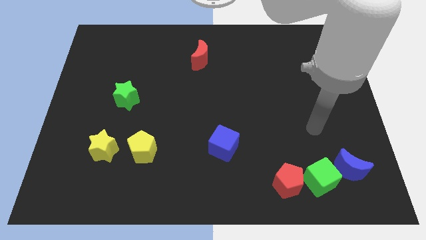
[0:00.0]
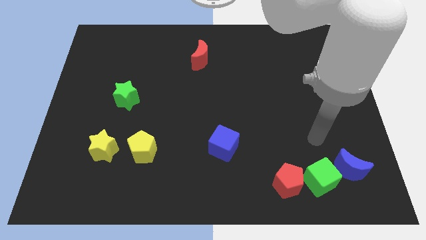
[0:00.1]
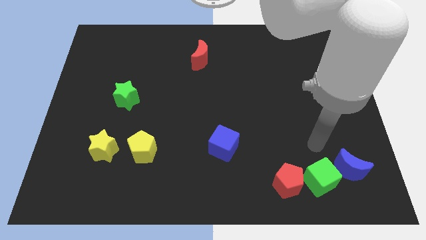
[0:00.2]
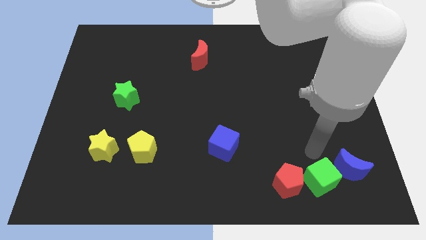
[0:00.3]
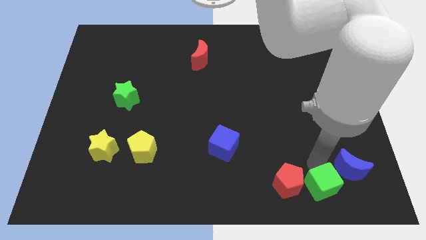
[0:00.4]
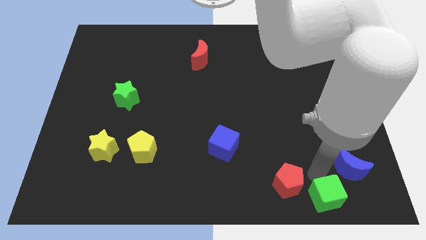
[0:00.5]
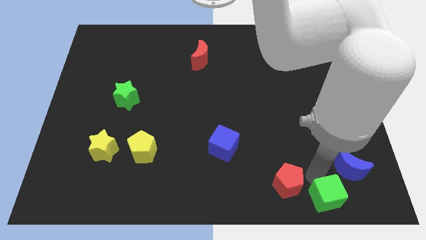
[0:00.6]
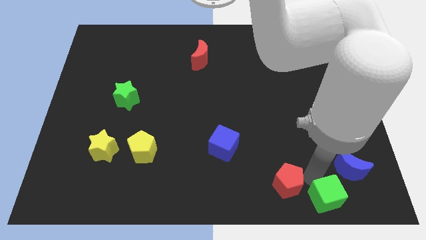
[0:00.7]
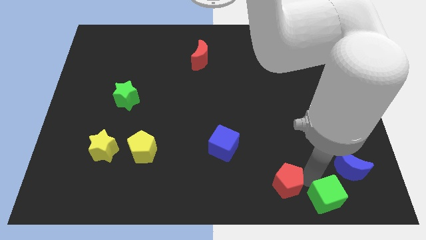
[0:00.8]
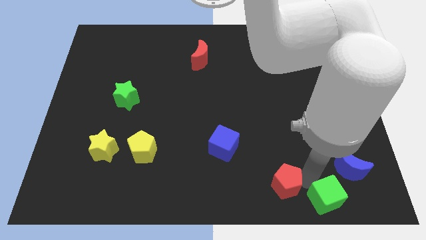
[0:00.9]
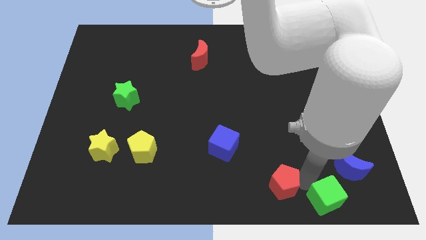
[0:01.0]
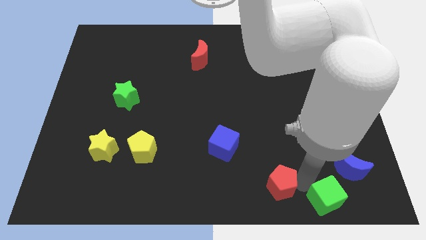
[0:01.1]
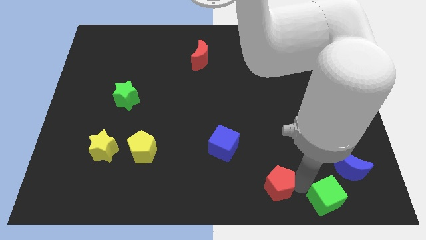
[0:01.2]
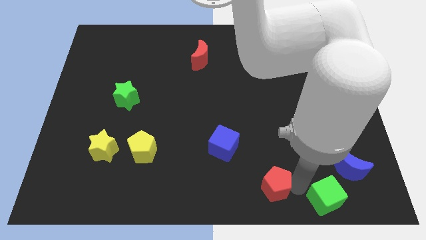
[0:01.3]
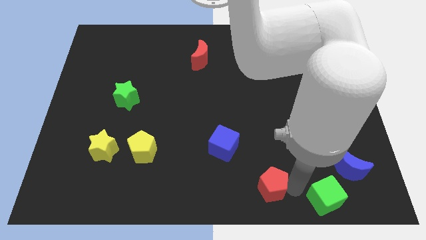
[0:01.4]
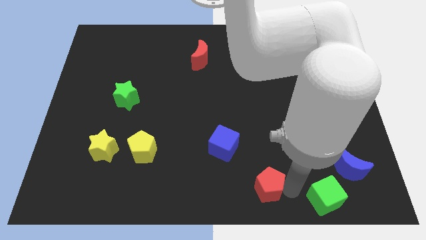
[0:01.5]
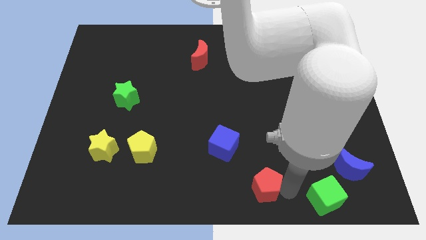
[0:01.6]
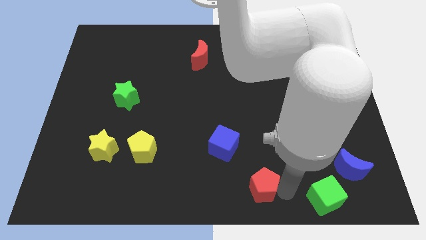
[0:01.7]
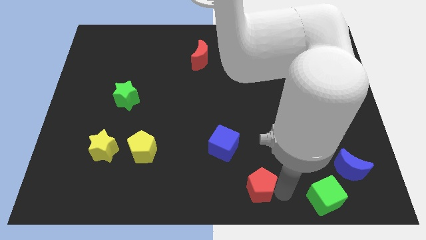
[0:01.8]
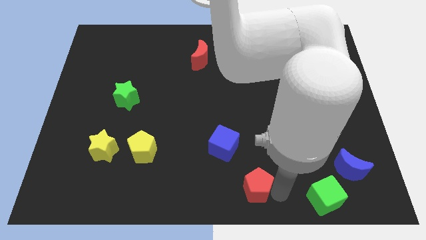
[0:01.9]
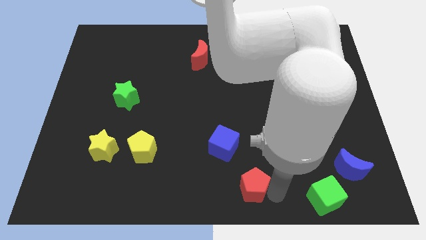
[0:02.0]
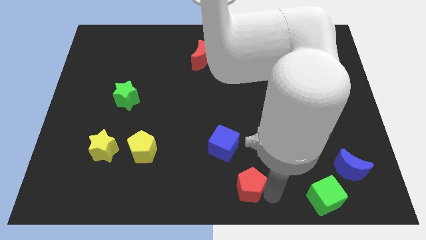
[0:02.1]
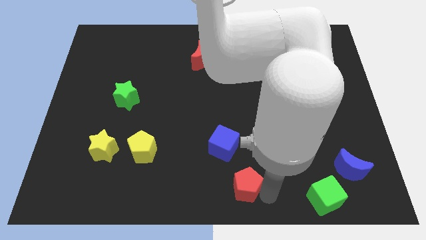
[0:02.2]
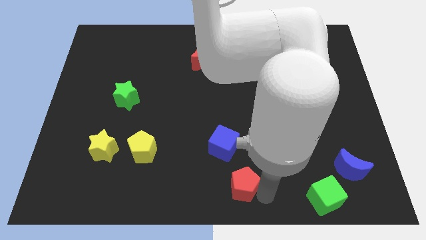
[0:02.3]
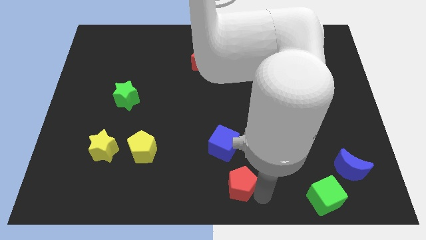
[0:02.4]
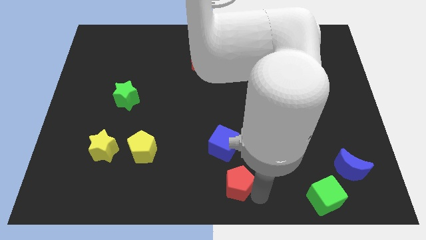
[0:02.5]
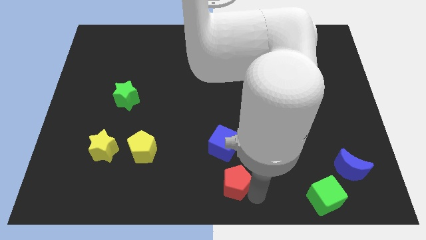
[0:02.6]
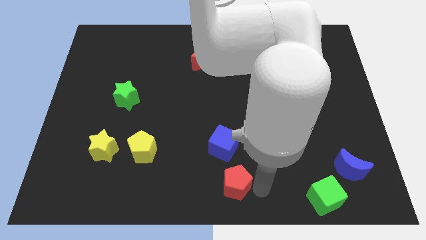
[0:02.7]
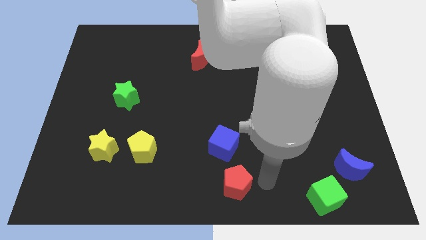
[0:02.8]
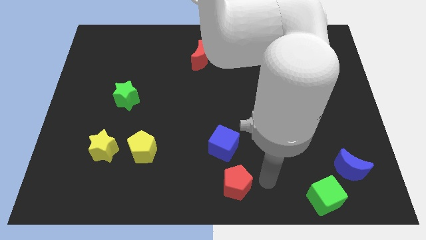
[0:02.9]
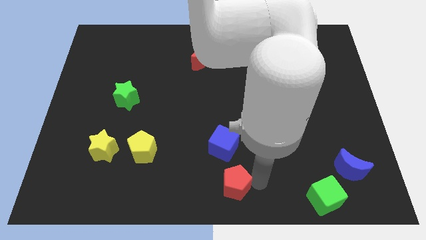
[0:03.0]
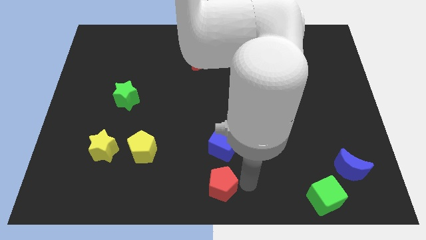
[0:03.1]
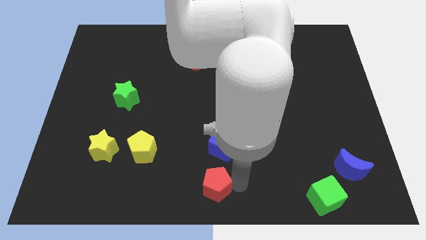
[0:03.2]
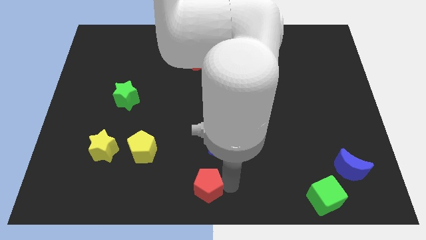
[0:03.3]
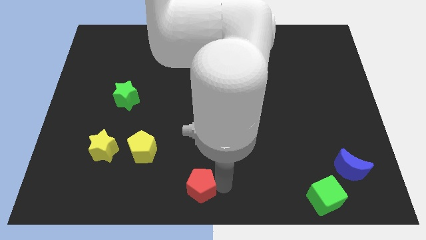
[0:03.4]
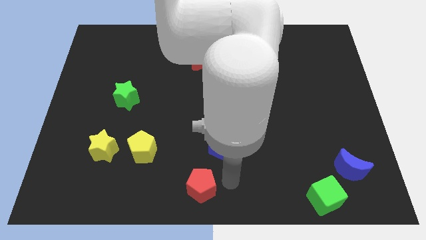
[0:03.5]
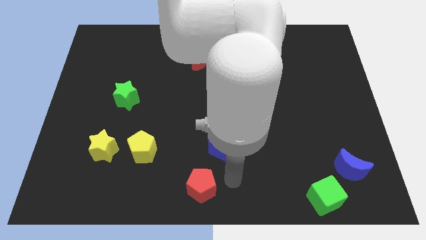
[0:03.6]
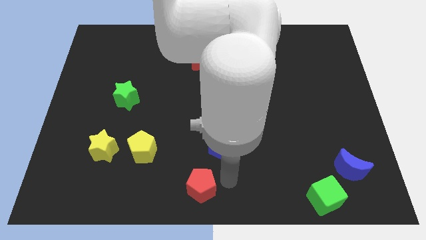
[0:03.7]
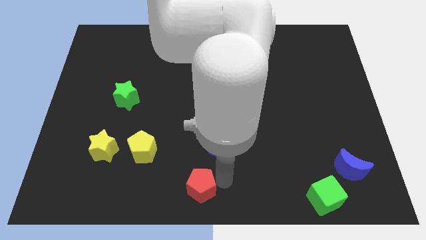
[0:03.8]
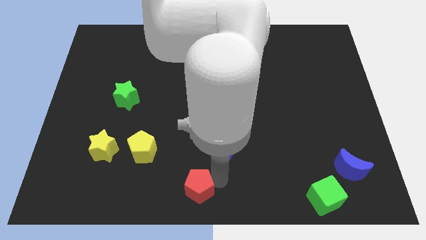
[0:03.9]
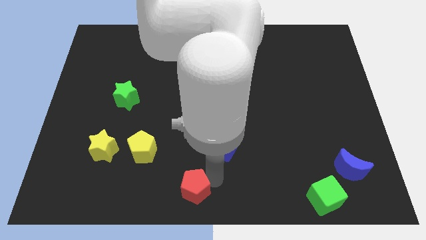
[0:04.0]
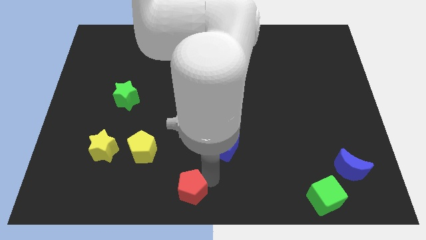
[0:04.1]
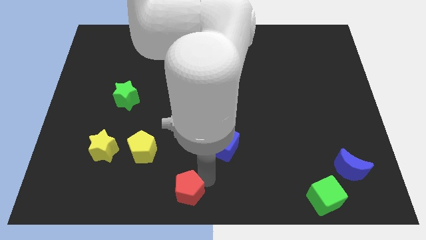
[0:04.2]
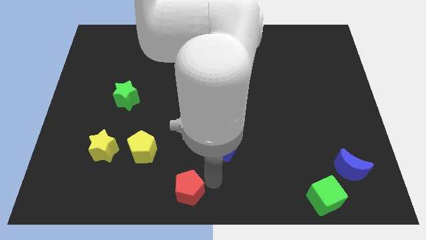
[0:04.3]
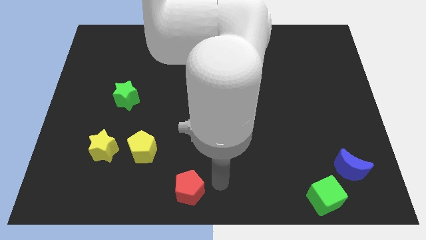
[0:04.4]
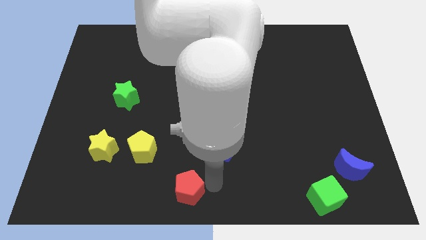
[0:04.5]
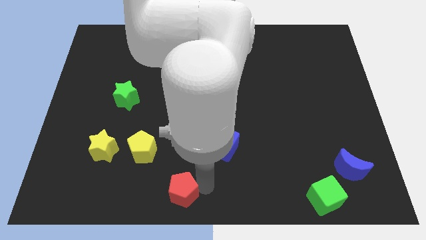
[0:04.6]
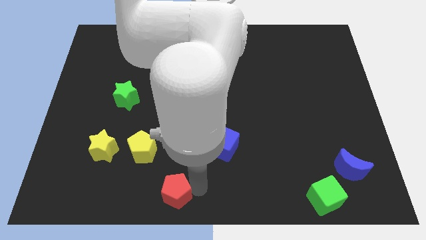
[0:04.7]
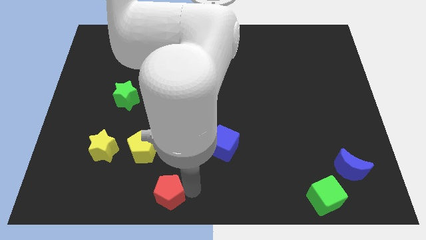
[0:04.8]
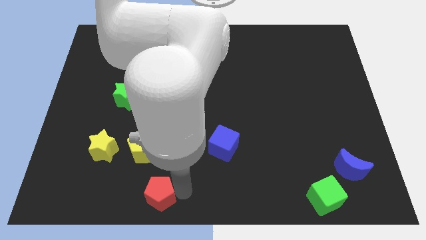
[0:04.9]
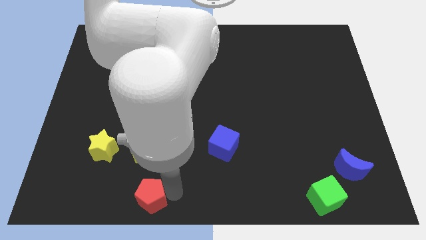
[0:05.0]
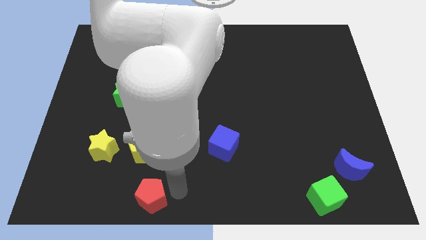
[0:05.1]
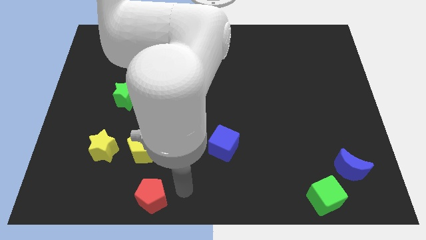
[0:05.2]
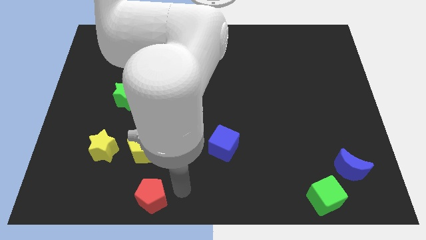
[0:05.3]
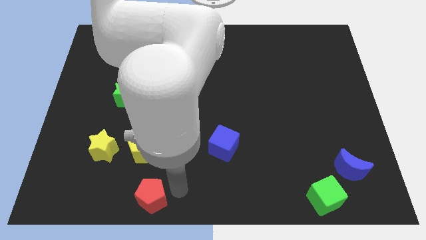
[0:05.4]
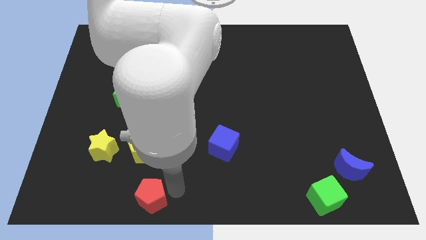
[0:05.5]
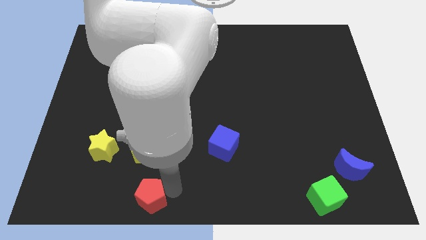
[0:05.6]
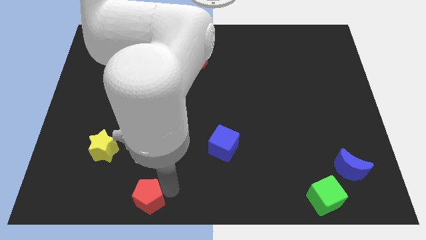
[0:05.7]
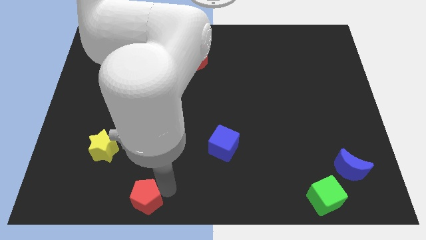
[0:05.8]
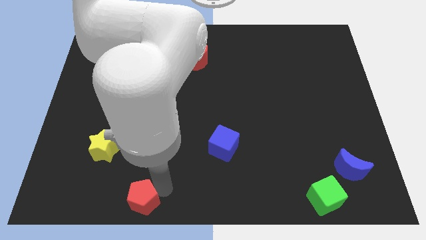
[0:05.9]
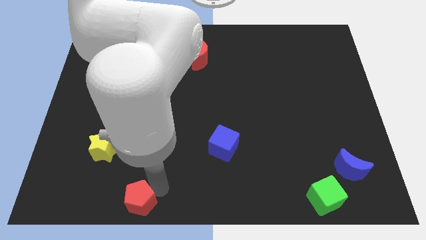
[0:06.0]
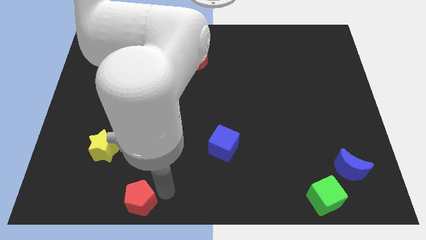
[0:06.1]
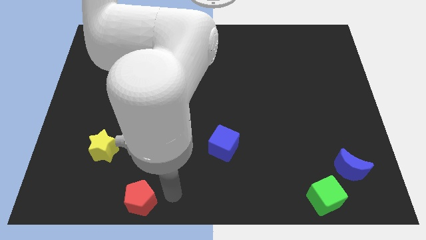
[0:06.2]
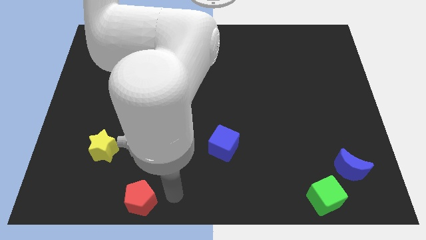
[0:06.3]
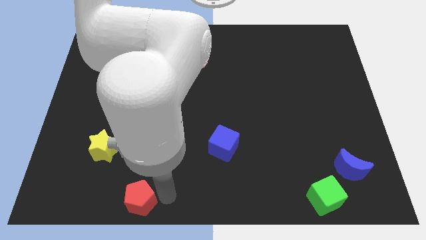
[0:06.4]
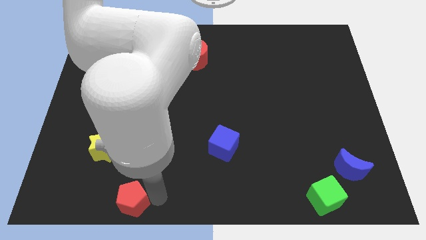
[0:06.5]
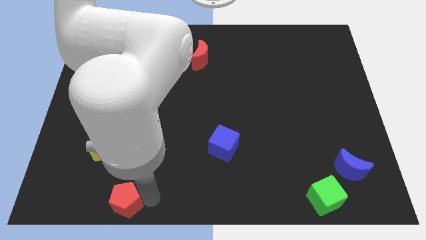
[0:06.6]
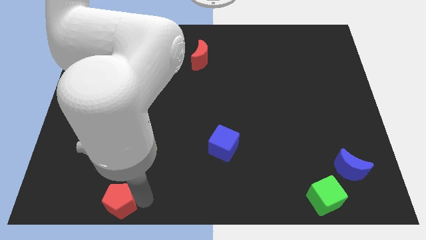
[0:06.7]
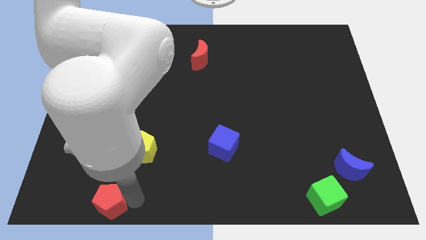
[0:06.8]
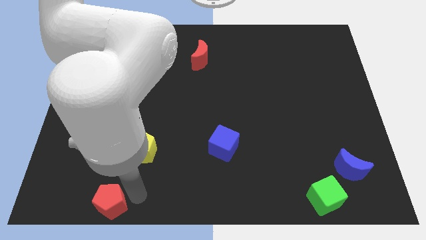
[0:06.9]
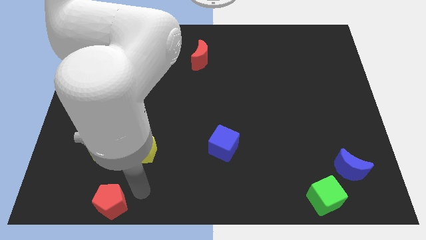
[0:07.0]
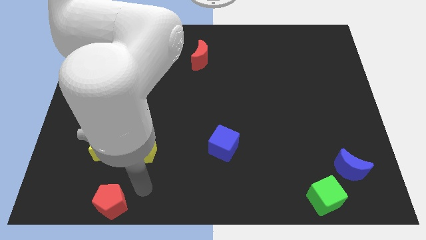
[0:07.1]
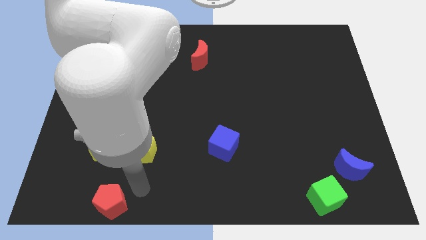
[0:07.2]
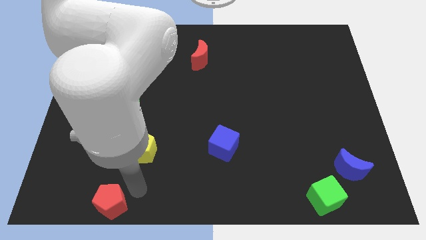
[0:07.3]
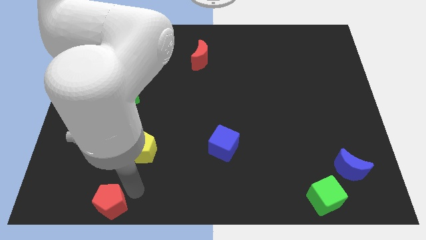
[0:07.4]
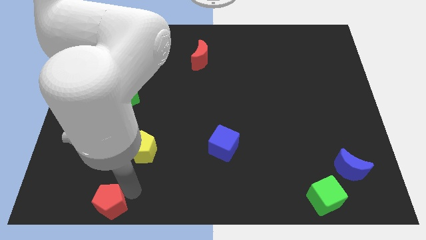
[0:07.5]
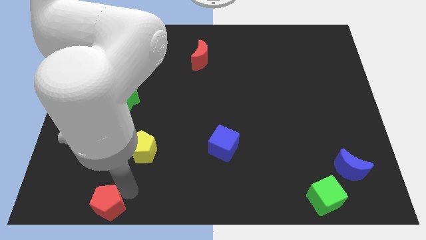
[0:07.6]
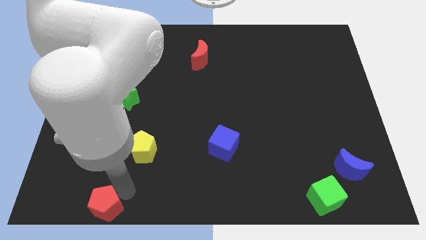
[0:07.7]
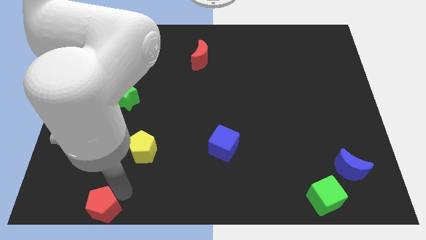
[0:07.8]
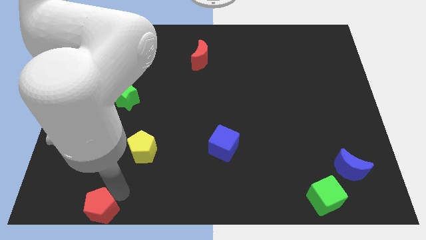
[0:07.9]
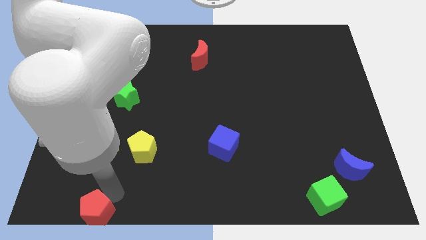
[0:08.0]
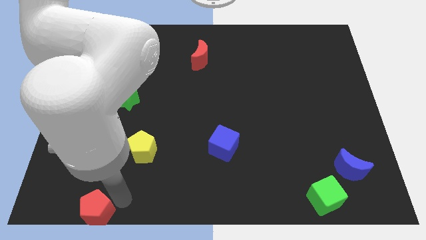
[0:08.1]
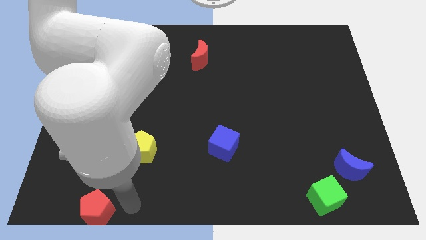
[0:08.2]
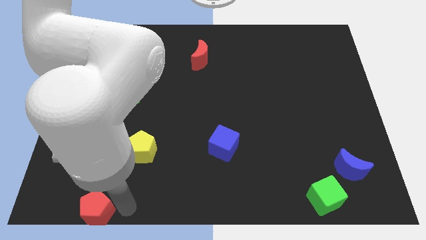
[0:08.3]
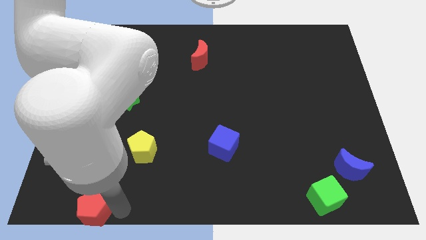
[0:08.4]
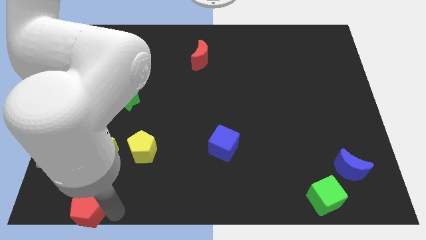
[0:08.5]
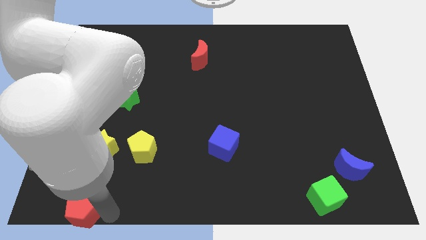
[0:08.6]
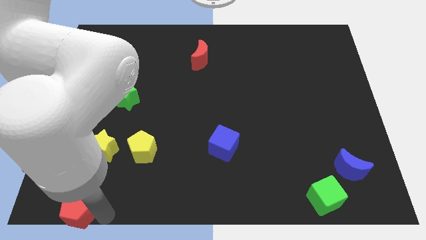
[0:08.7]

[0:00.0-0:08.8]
put the red pentagon to the bottom left of the board
